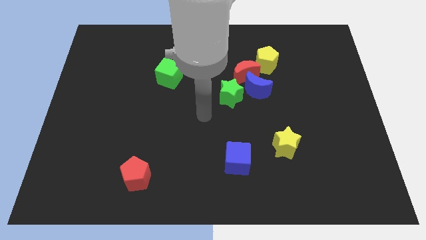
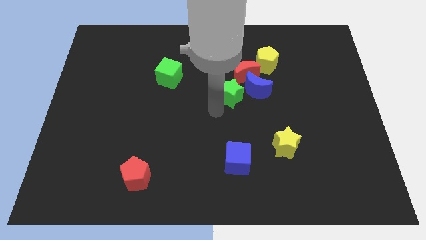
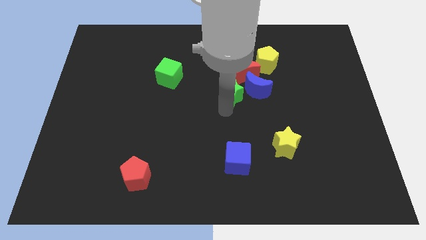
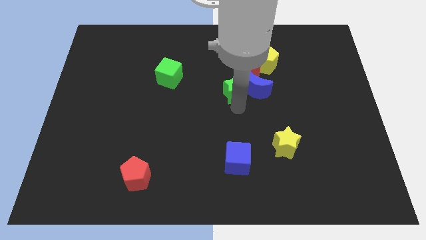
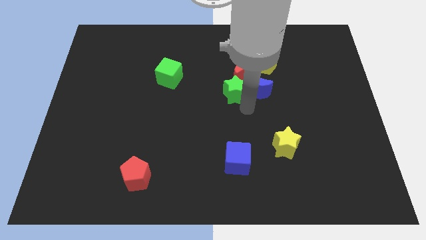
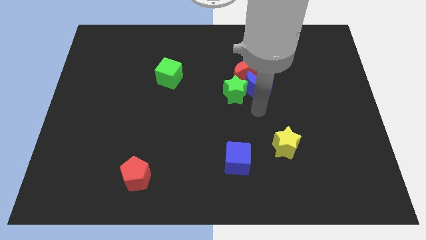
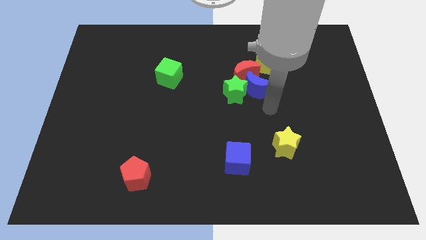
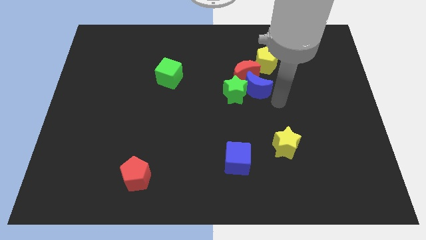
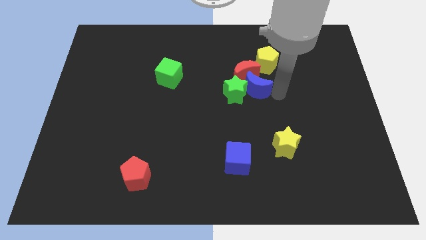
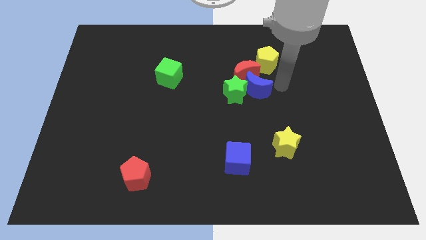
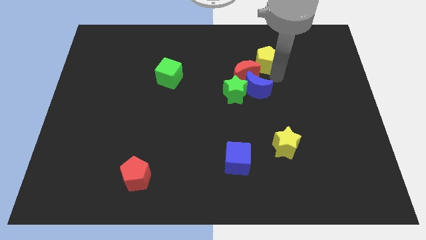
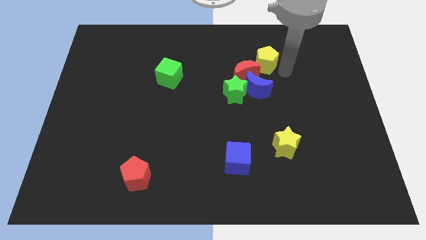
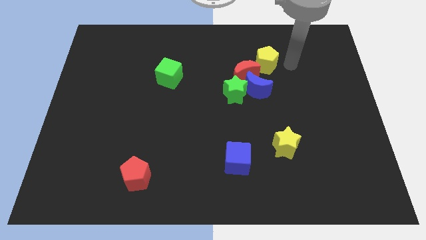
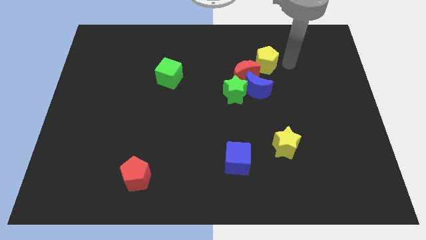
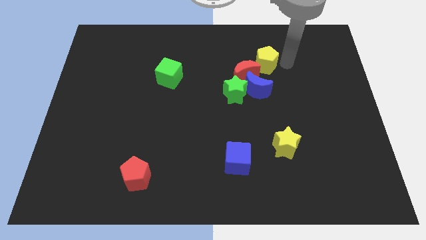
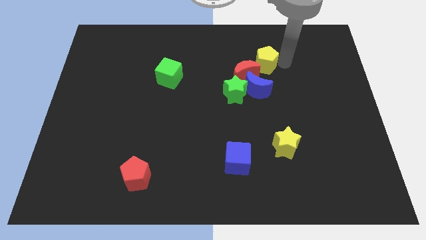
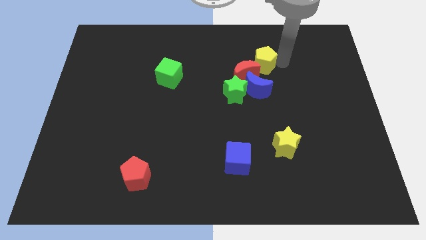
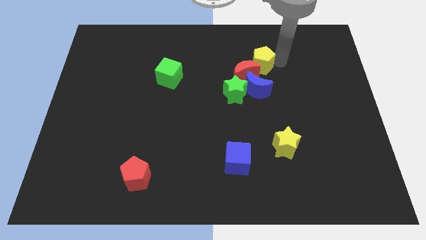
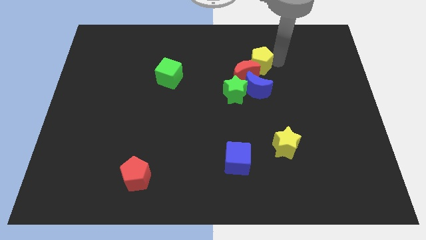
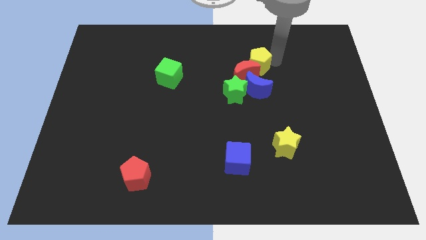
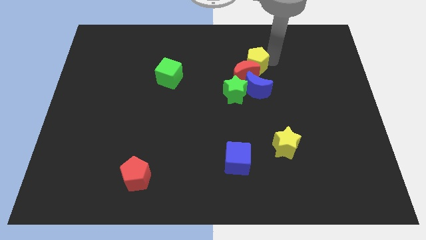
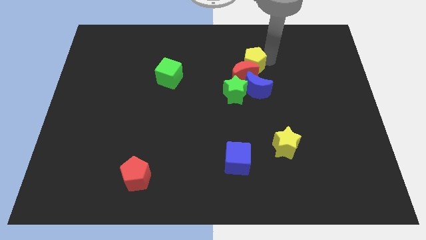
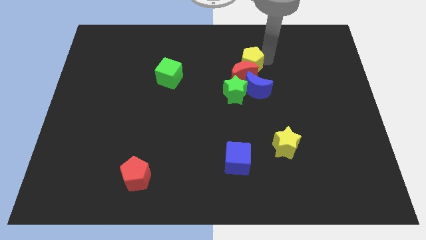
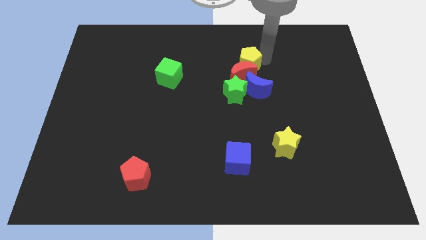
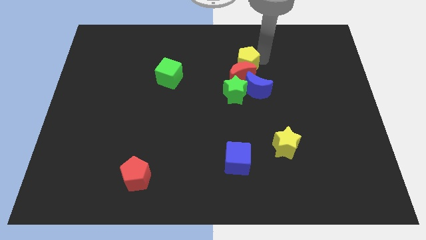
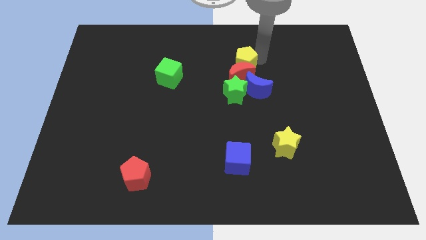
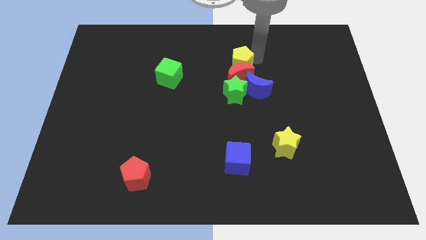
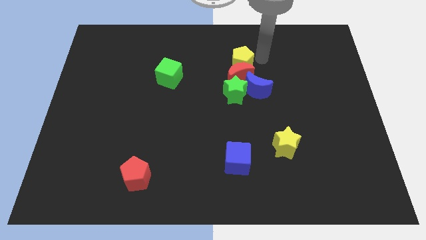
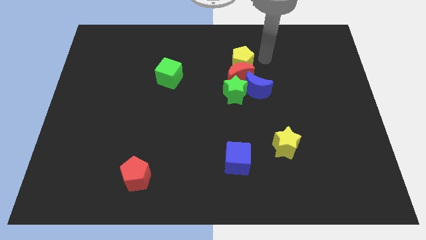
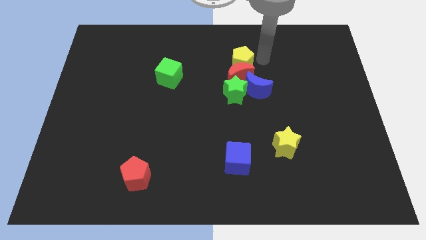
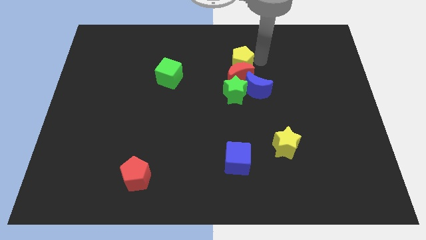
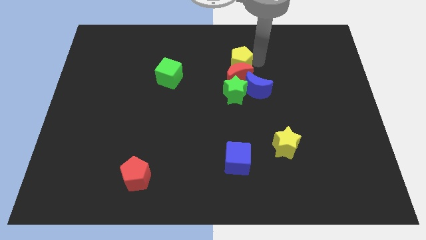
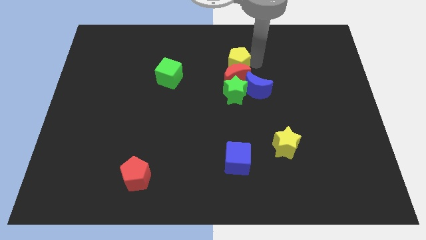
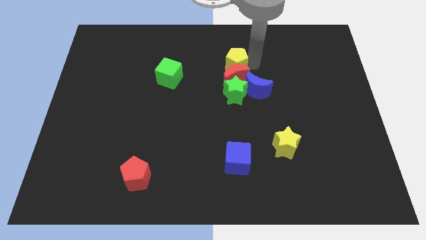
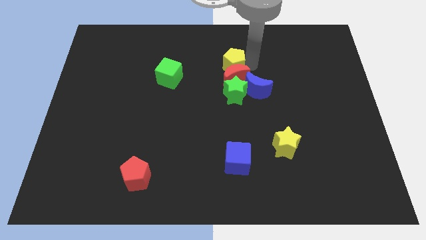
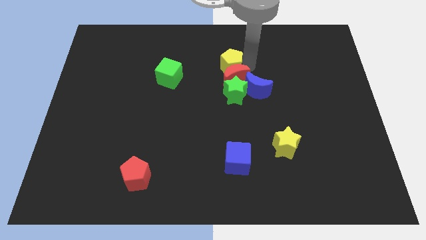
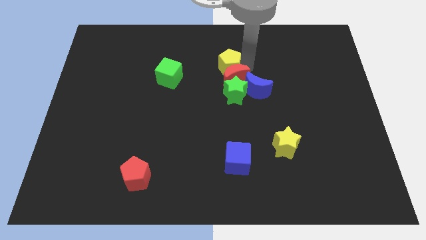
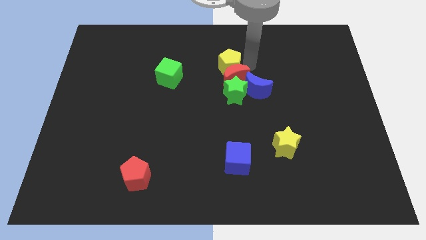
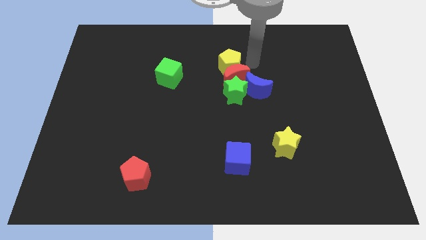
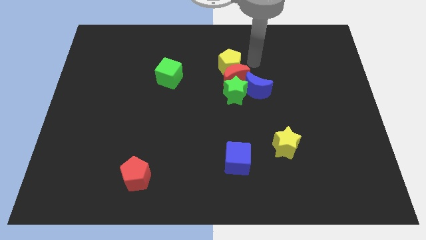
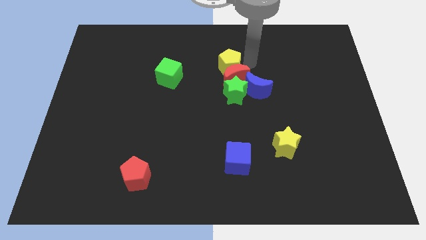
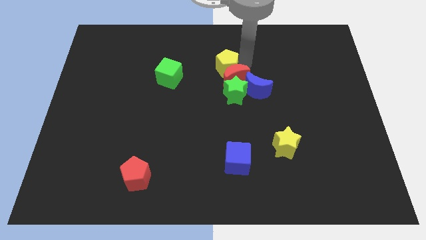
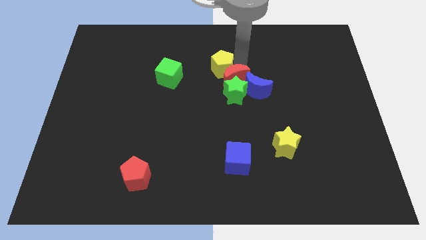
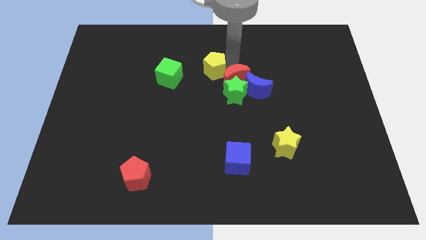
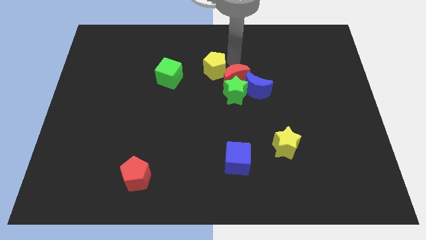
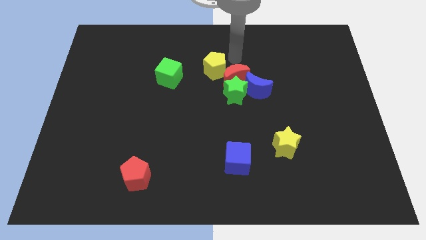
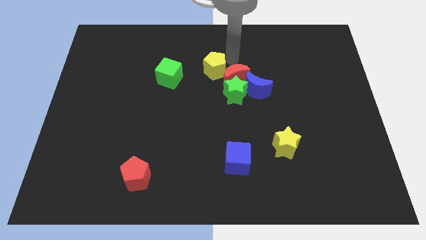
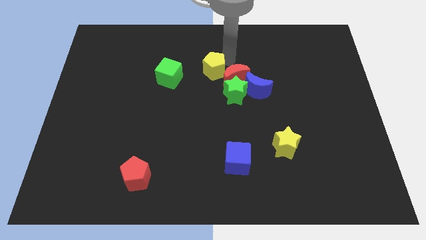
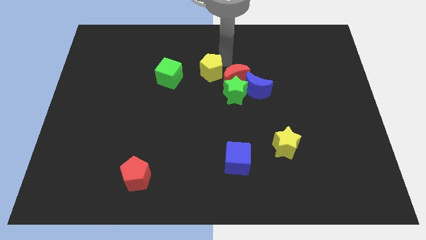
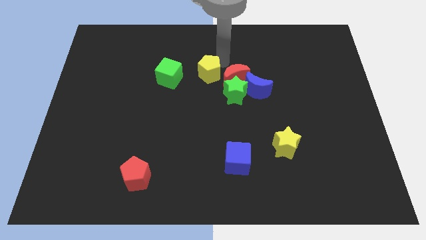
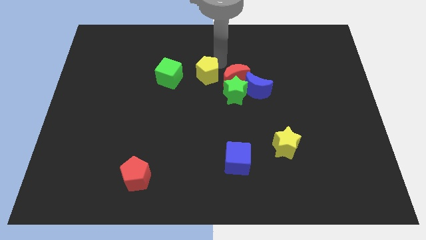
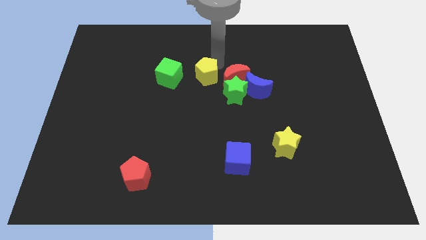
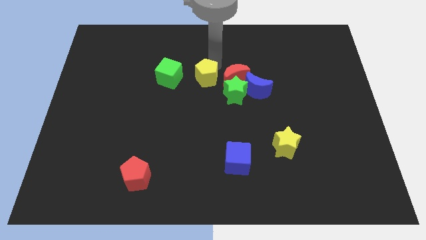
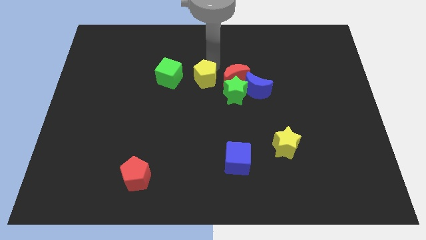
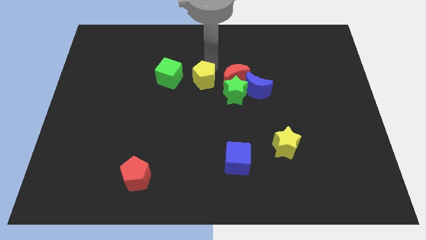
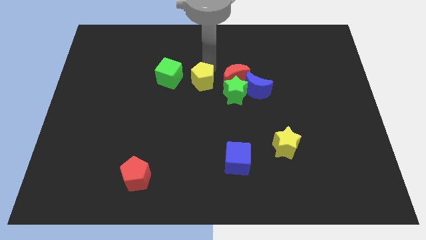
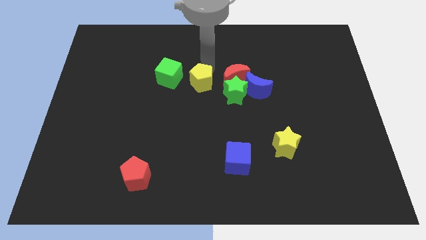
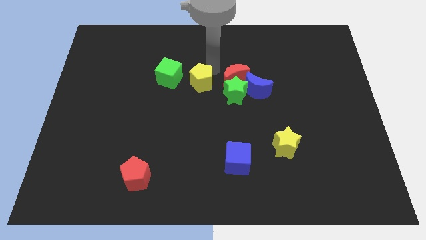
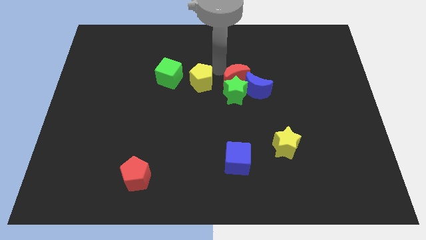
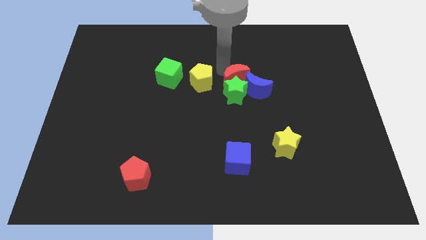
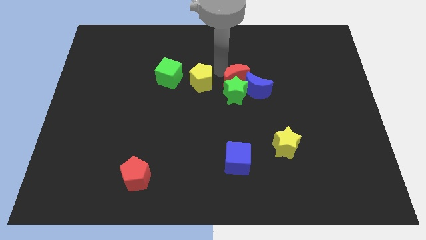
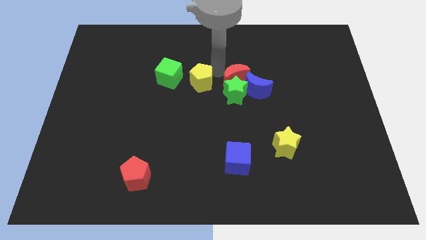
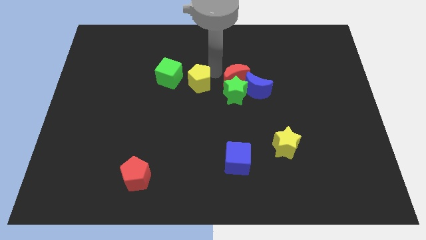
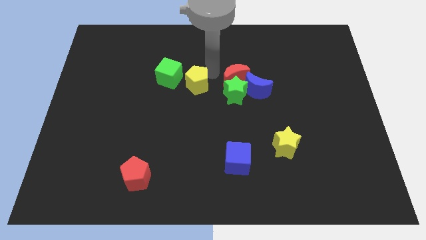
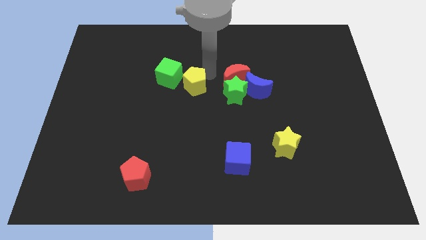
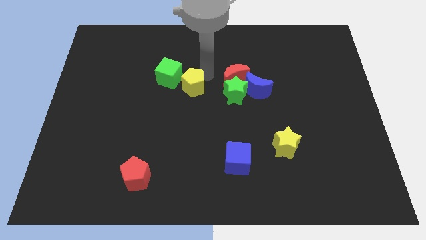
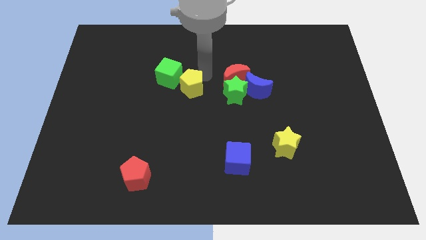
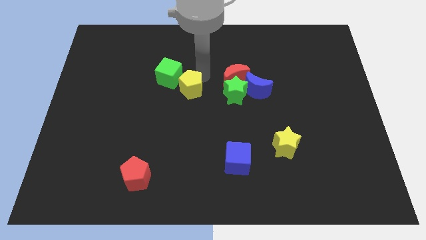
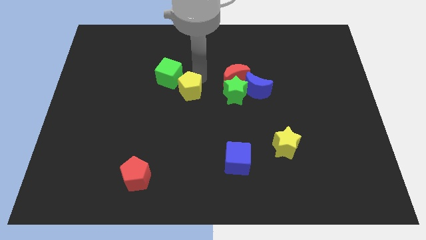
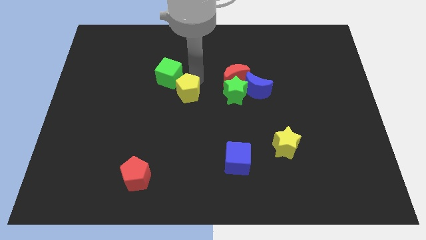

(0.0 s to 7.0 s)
push the yellow pentagon below the green cube
